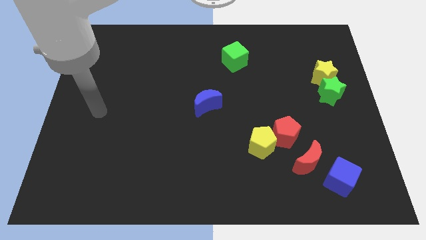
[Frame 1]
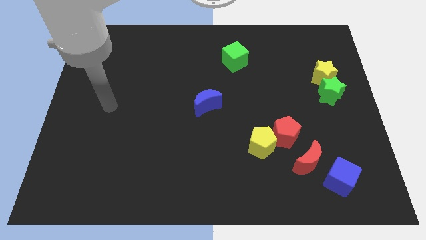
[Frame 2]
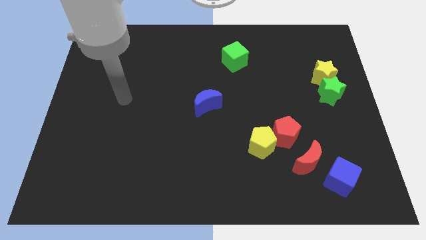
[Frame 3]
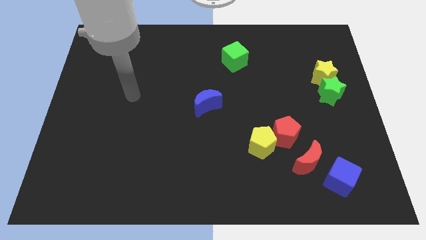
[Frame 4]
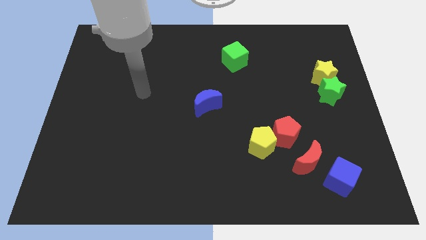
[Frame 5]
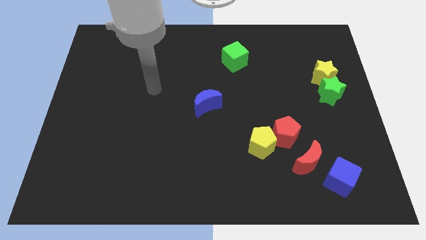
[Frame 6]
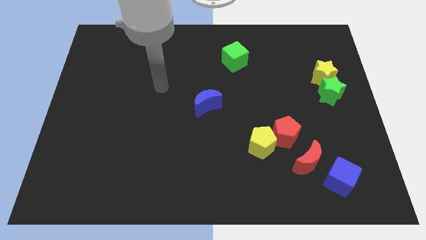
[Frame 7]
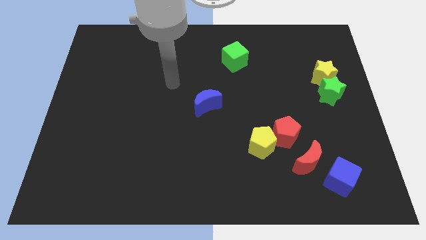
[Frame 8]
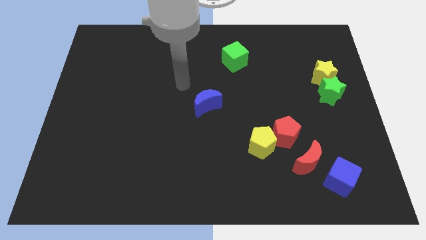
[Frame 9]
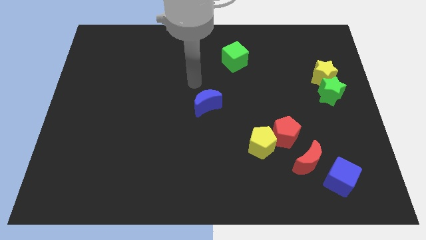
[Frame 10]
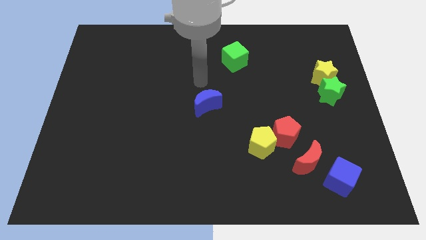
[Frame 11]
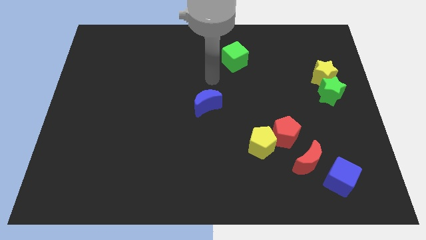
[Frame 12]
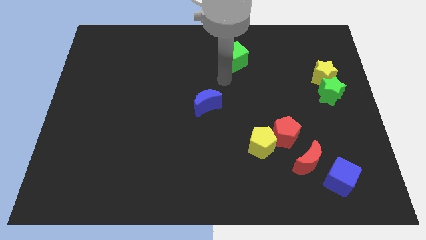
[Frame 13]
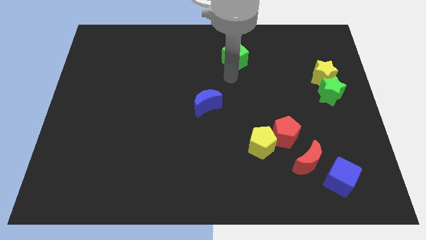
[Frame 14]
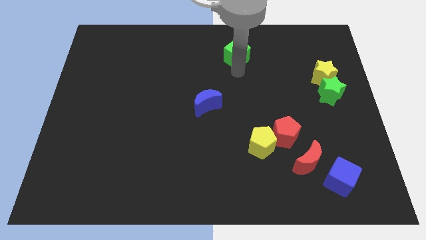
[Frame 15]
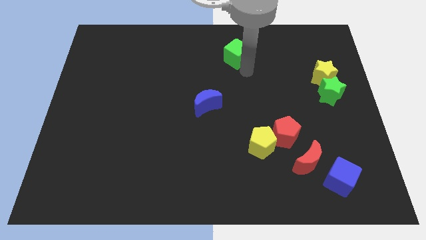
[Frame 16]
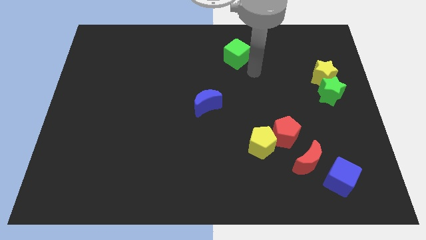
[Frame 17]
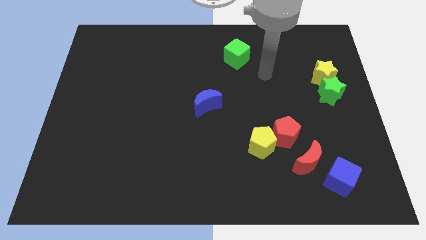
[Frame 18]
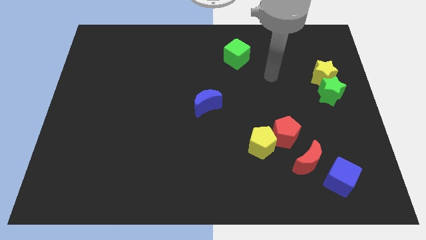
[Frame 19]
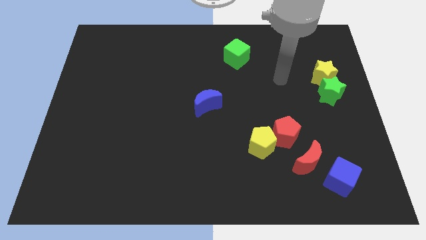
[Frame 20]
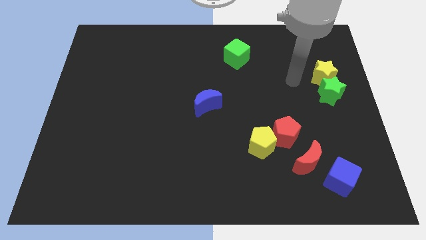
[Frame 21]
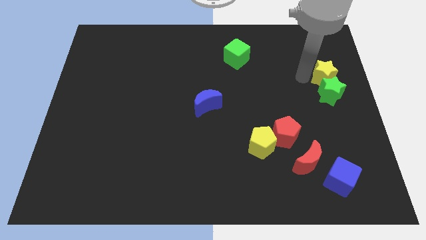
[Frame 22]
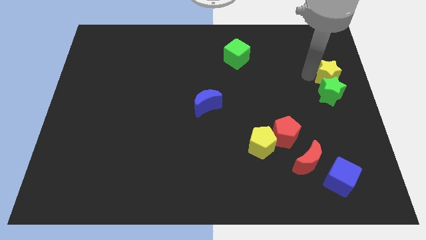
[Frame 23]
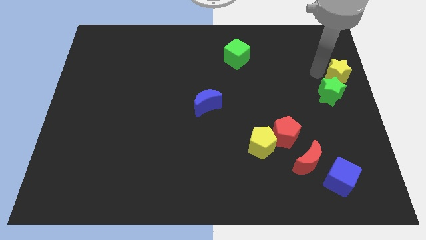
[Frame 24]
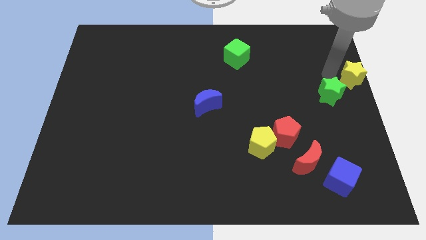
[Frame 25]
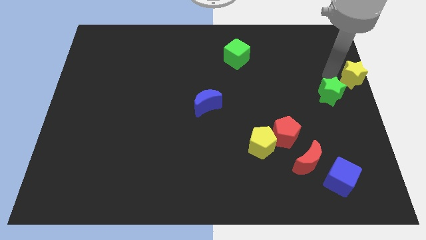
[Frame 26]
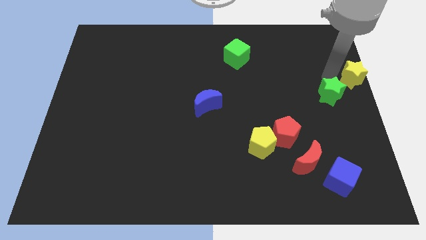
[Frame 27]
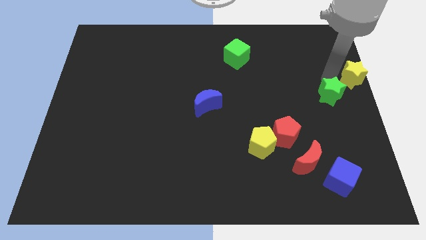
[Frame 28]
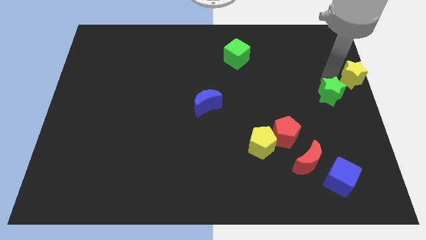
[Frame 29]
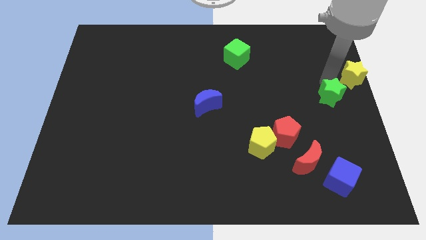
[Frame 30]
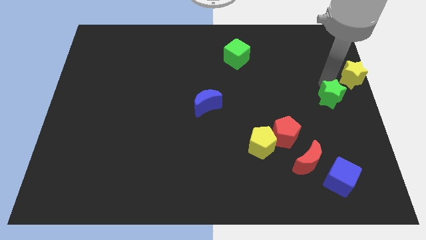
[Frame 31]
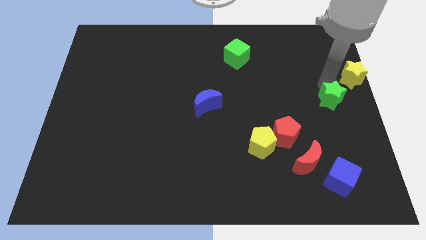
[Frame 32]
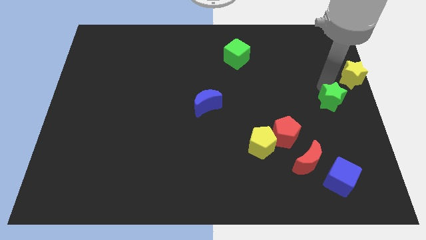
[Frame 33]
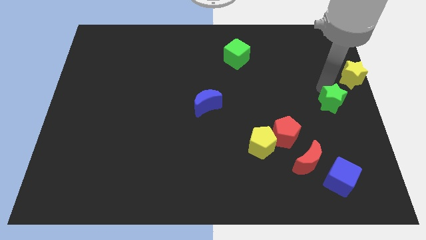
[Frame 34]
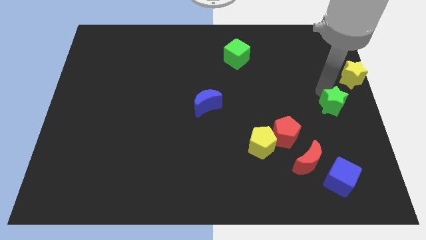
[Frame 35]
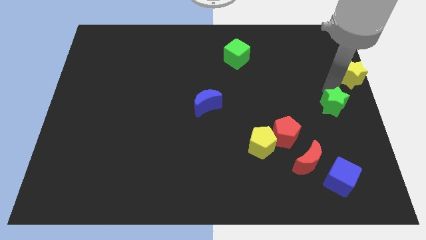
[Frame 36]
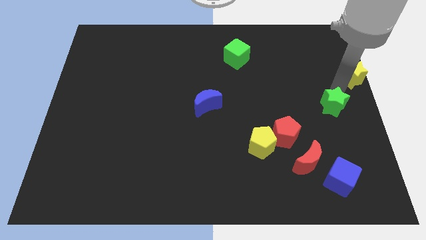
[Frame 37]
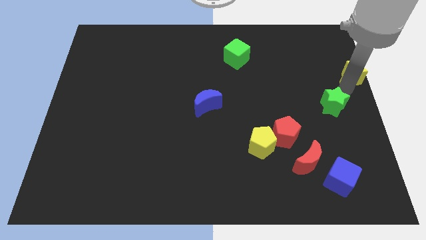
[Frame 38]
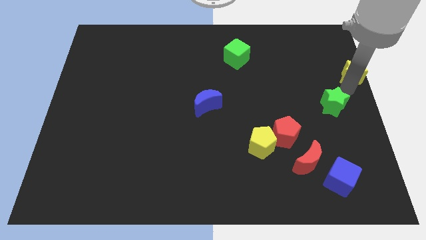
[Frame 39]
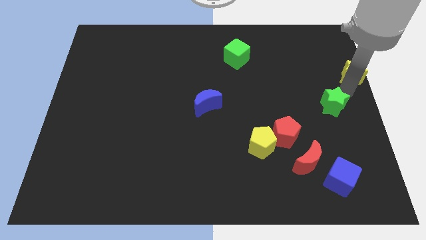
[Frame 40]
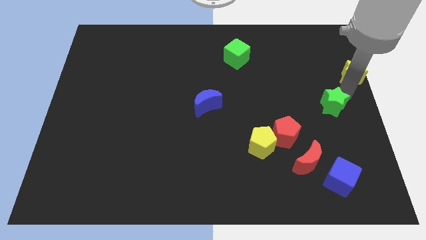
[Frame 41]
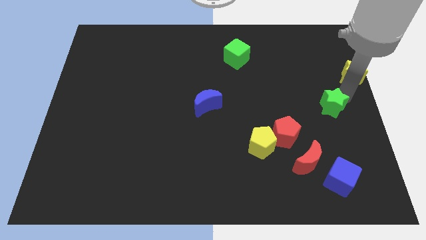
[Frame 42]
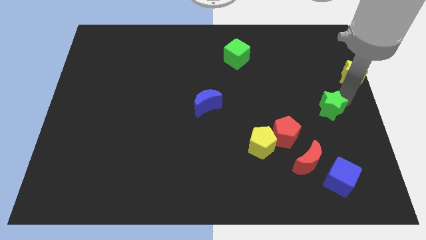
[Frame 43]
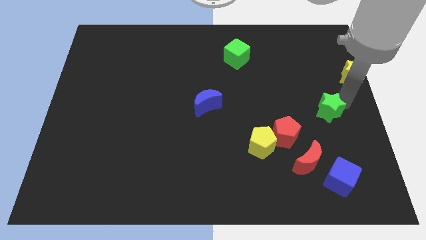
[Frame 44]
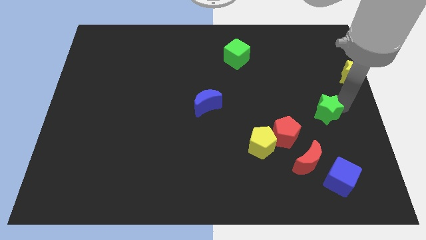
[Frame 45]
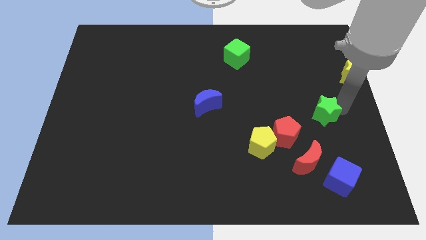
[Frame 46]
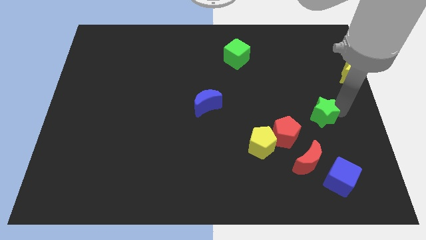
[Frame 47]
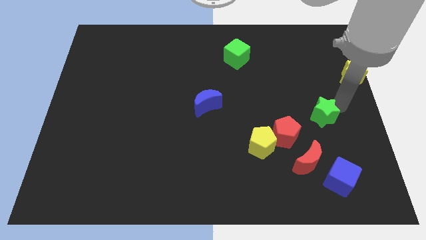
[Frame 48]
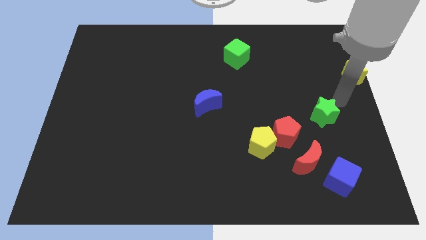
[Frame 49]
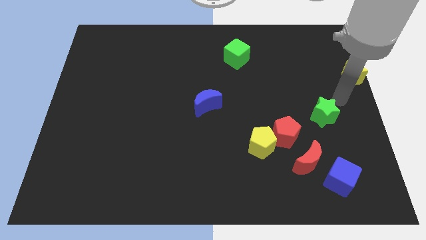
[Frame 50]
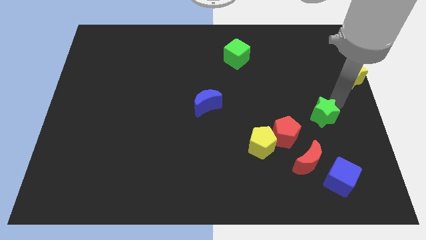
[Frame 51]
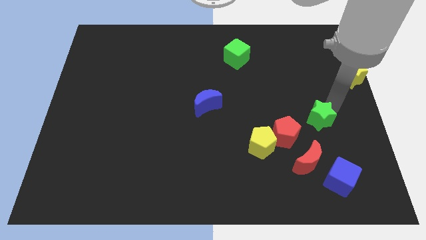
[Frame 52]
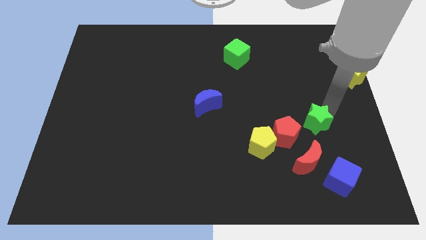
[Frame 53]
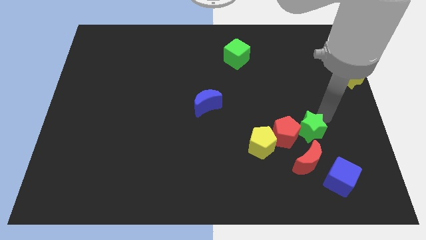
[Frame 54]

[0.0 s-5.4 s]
move the green star close to the red pentagon

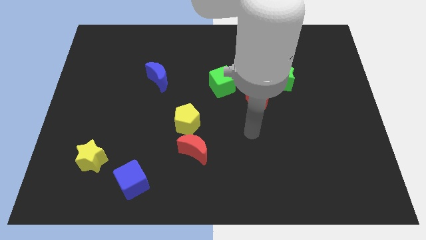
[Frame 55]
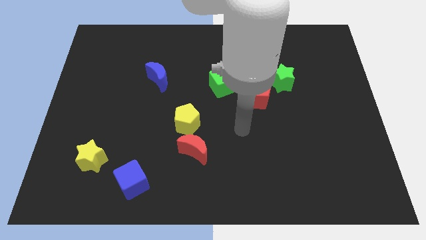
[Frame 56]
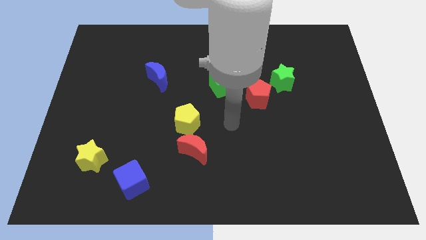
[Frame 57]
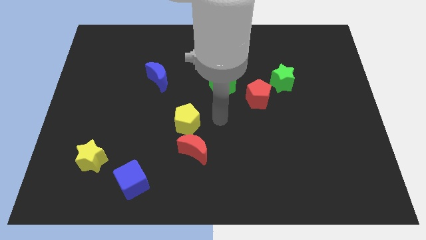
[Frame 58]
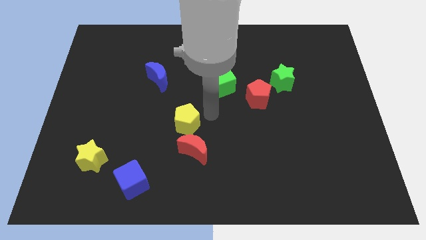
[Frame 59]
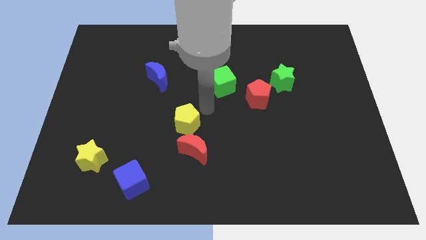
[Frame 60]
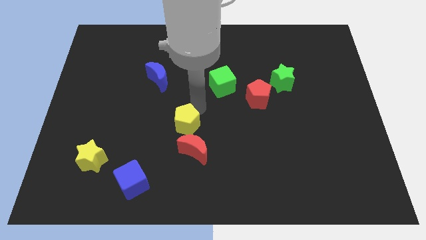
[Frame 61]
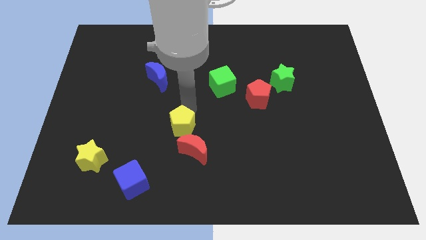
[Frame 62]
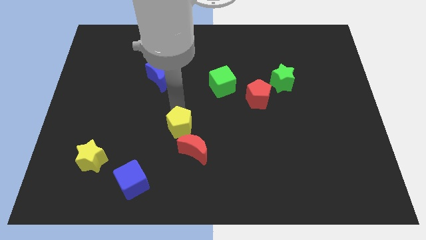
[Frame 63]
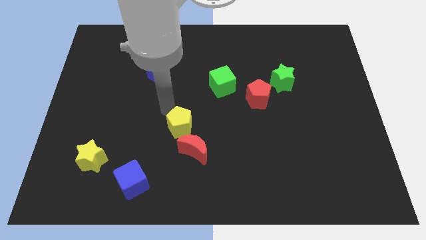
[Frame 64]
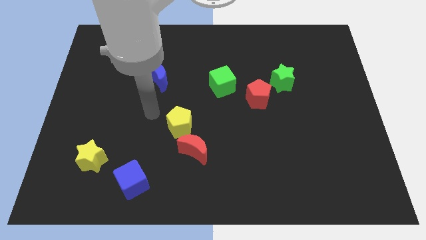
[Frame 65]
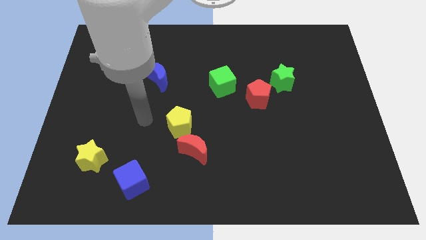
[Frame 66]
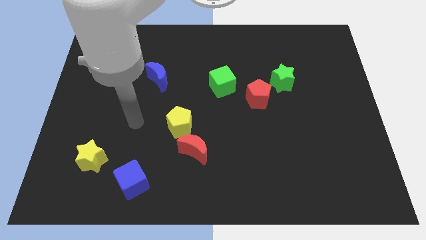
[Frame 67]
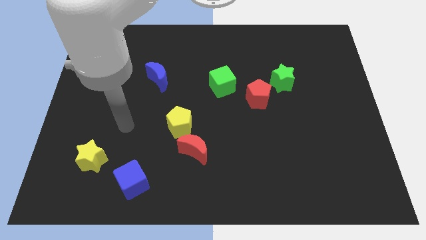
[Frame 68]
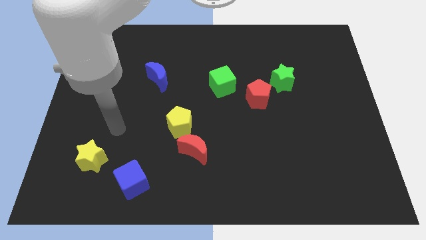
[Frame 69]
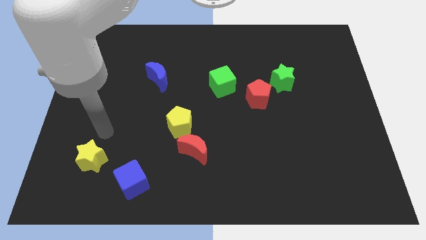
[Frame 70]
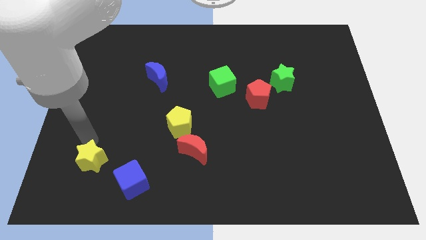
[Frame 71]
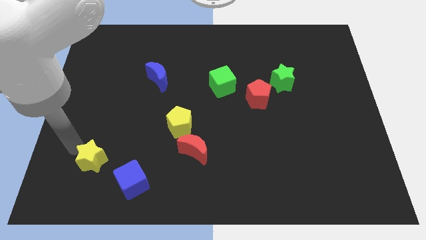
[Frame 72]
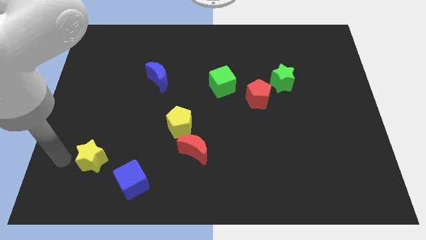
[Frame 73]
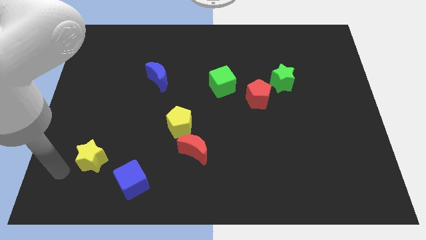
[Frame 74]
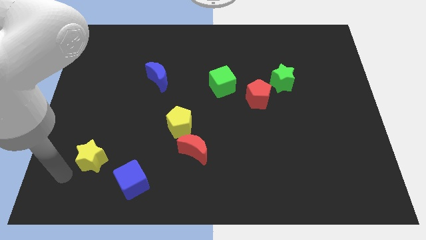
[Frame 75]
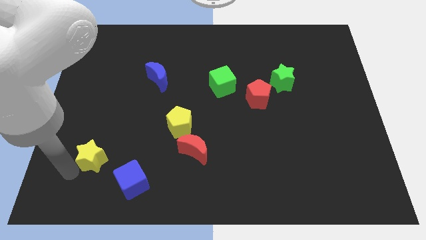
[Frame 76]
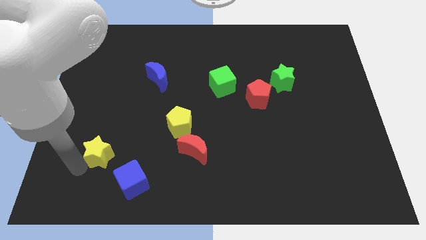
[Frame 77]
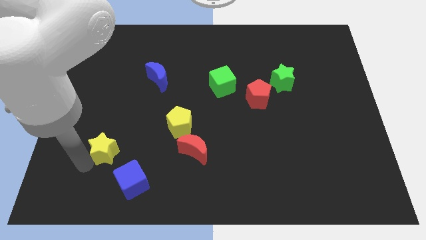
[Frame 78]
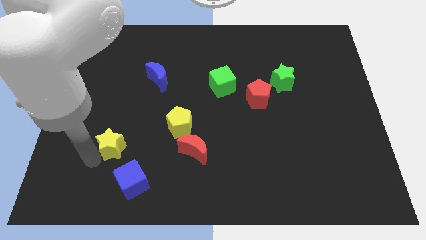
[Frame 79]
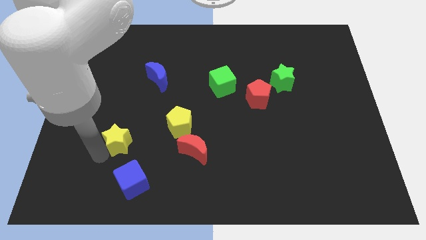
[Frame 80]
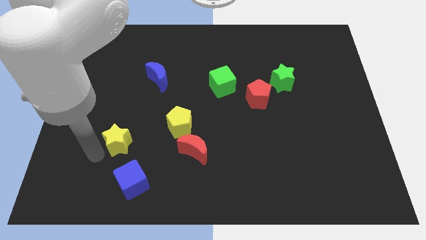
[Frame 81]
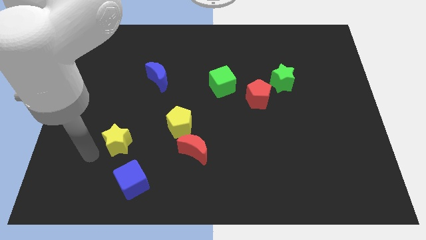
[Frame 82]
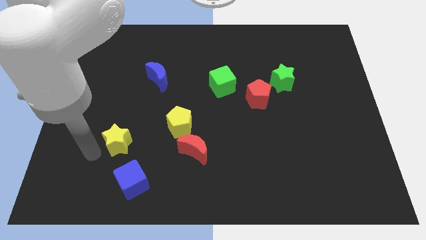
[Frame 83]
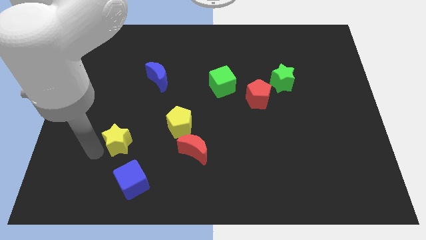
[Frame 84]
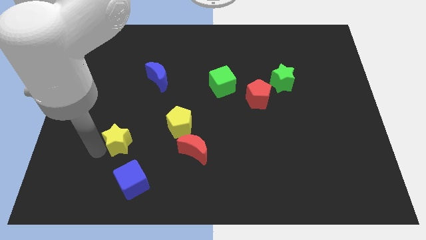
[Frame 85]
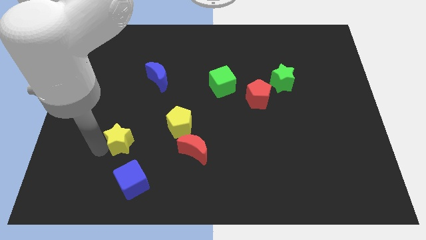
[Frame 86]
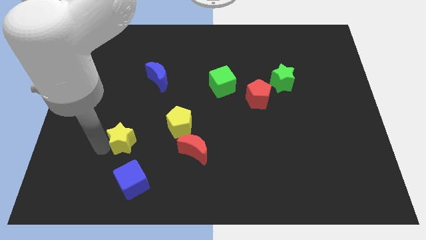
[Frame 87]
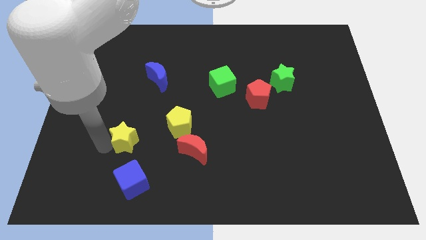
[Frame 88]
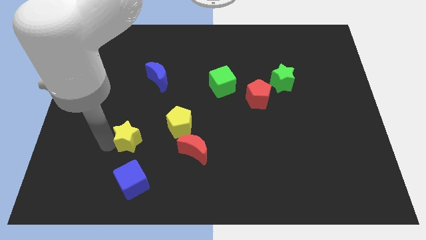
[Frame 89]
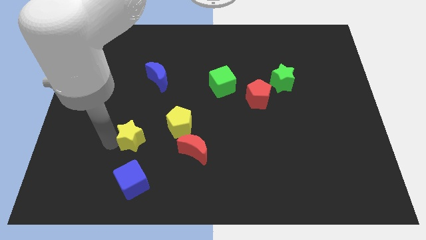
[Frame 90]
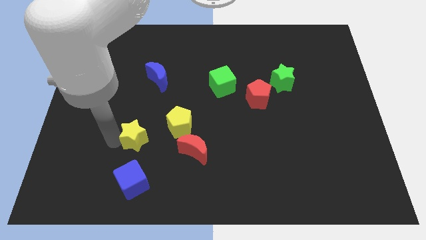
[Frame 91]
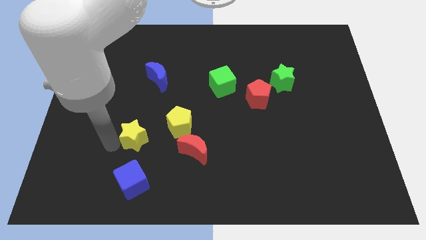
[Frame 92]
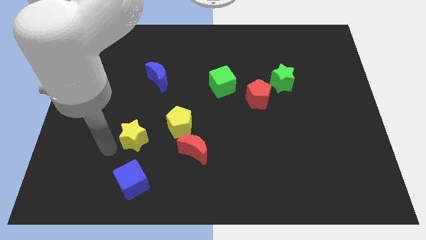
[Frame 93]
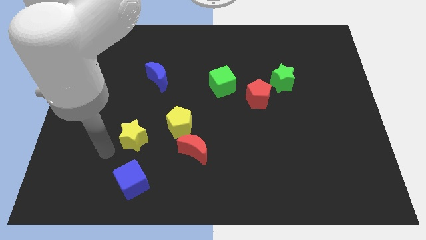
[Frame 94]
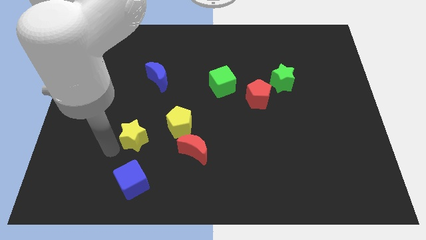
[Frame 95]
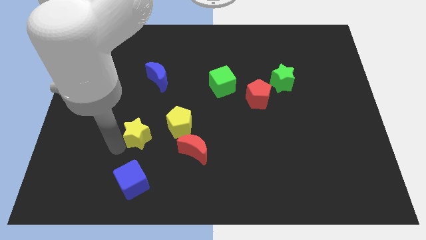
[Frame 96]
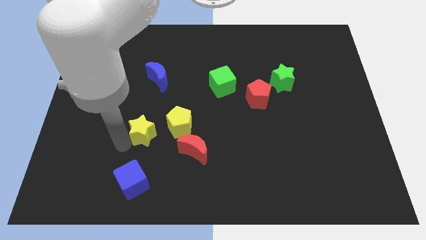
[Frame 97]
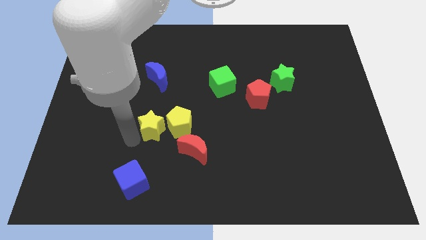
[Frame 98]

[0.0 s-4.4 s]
push the yellow star towards the yellow pentagon
